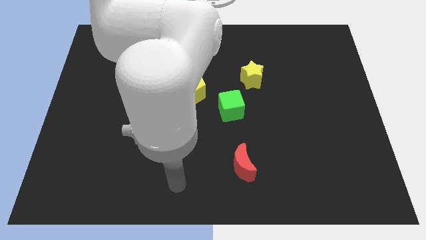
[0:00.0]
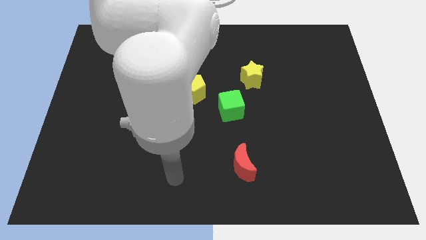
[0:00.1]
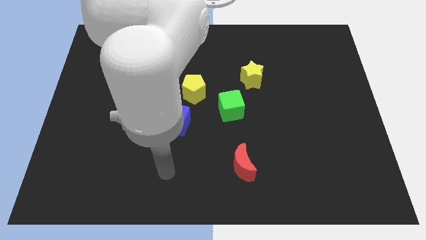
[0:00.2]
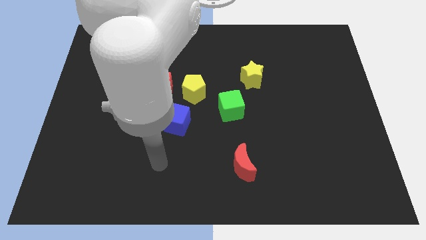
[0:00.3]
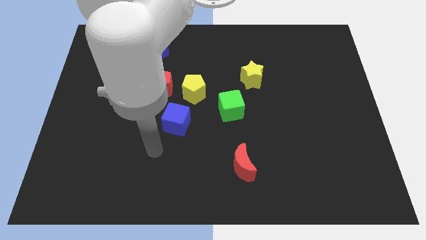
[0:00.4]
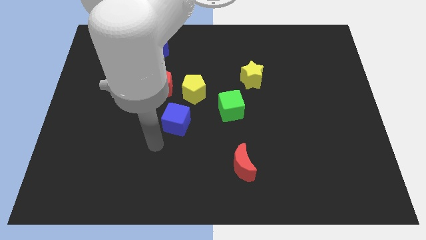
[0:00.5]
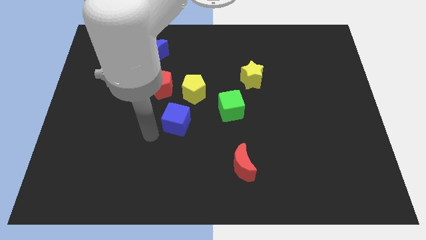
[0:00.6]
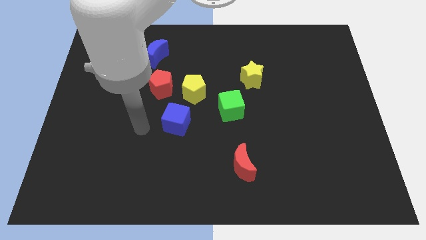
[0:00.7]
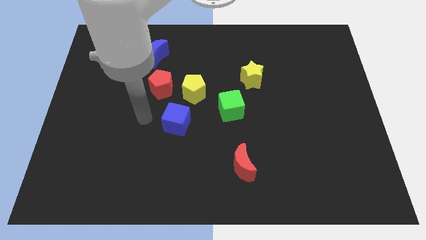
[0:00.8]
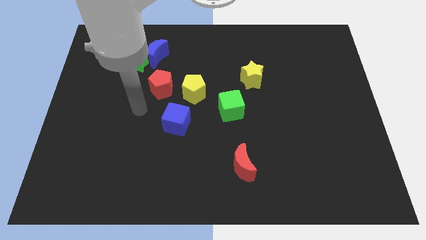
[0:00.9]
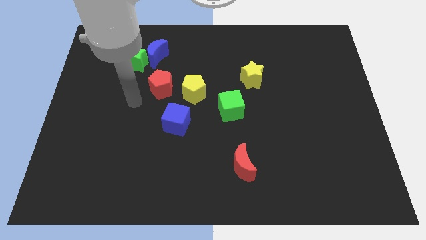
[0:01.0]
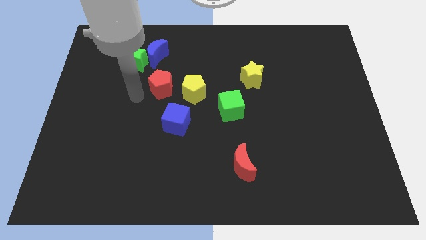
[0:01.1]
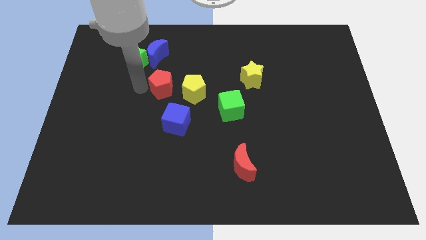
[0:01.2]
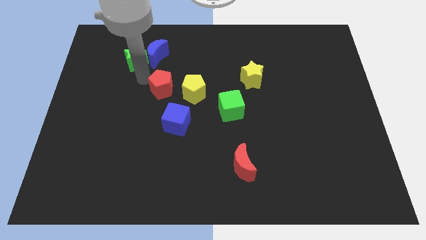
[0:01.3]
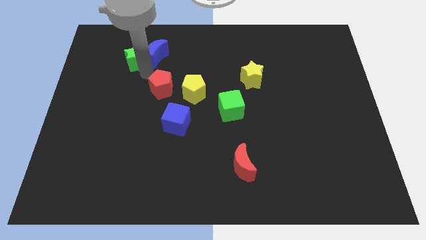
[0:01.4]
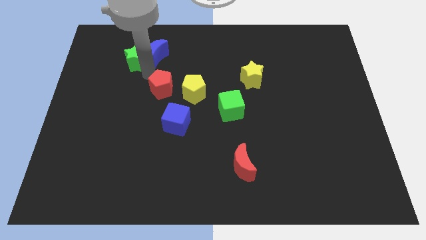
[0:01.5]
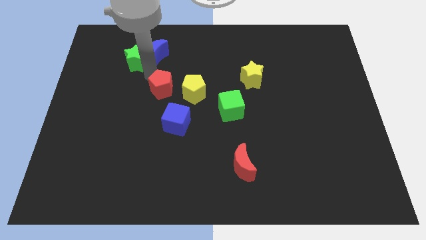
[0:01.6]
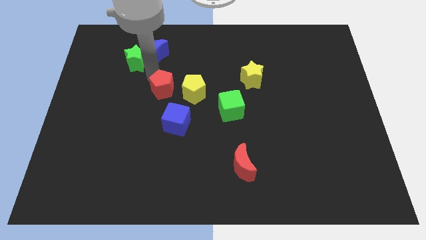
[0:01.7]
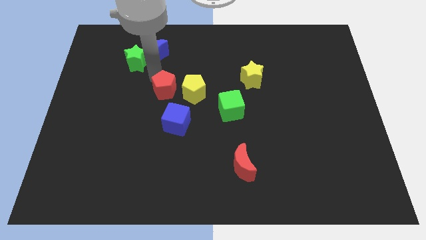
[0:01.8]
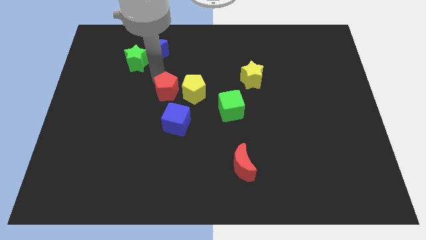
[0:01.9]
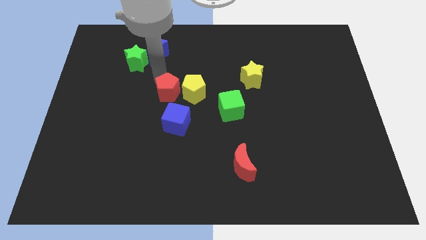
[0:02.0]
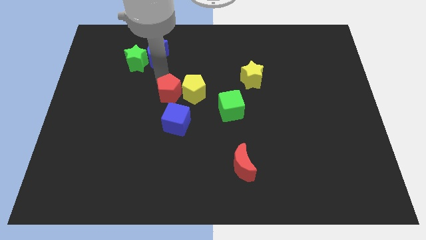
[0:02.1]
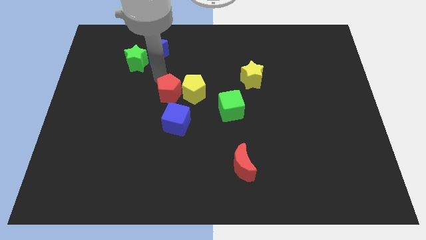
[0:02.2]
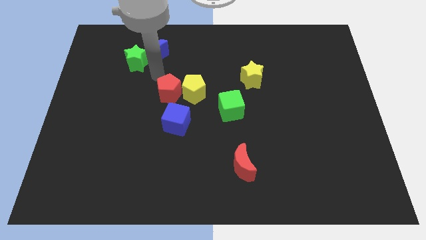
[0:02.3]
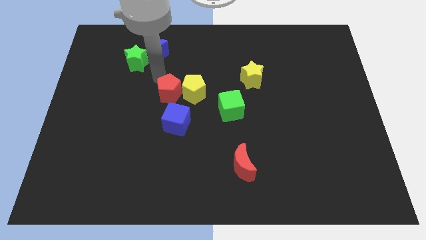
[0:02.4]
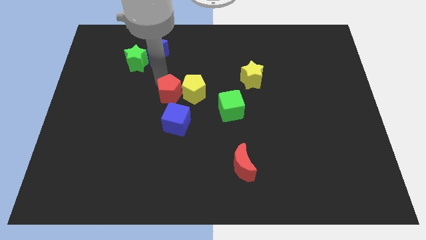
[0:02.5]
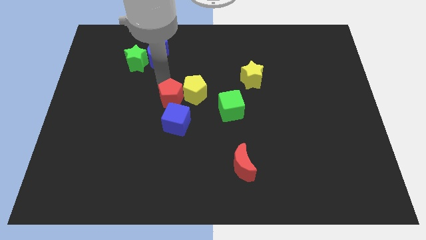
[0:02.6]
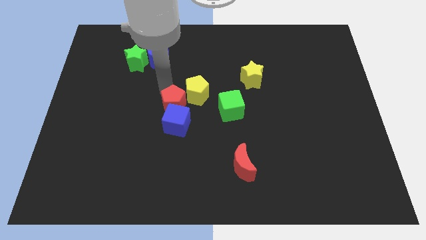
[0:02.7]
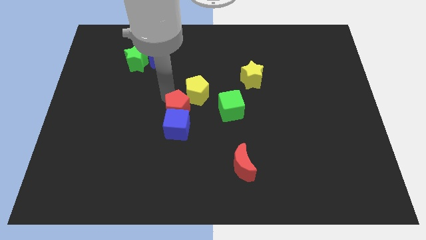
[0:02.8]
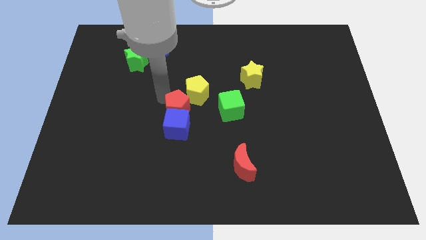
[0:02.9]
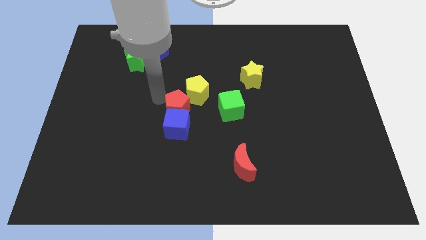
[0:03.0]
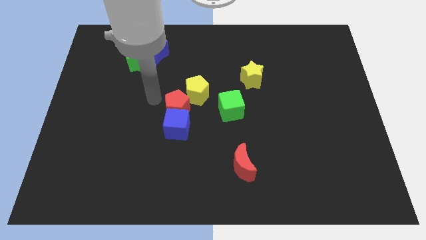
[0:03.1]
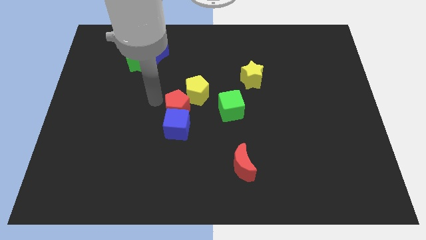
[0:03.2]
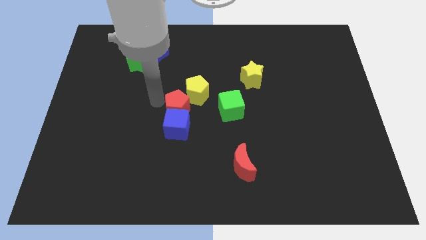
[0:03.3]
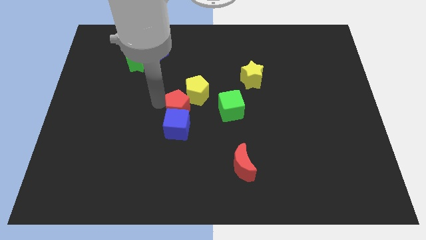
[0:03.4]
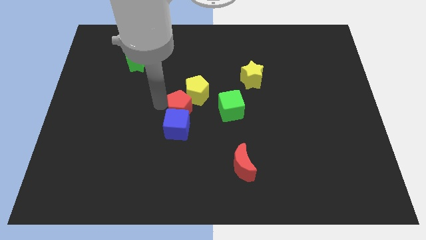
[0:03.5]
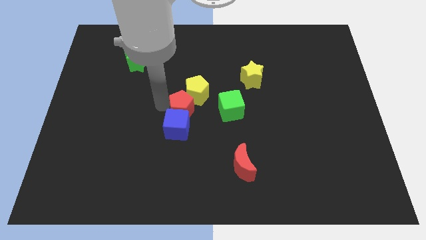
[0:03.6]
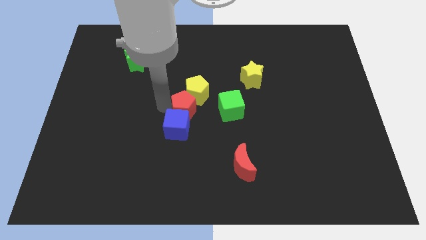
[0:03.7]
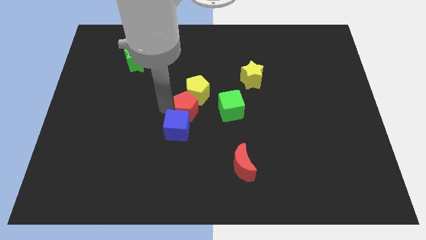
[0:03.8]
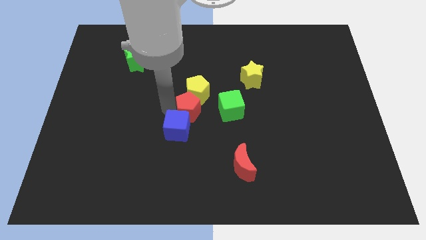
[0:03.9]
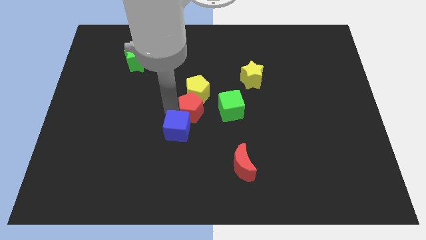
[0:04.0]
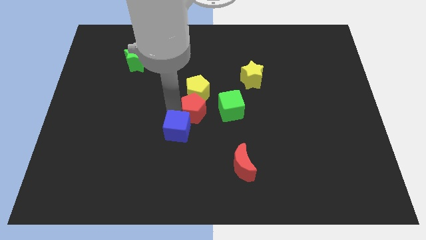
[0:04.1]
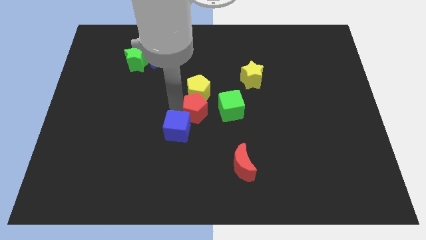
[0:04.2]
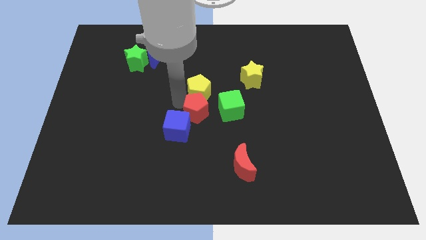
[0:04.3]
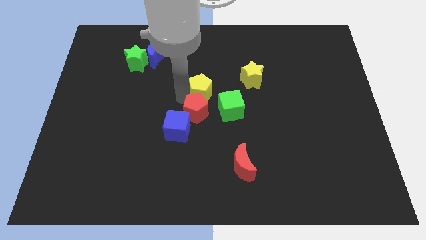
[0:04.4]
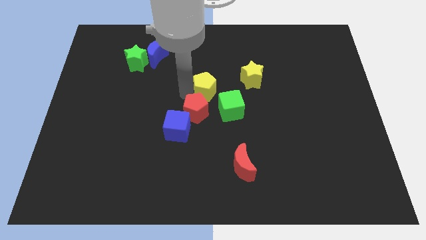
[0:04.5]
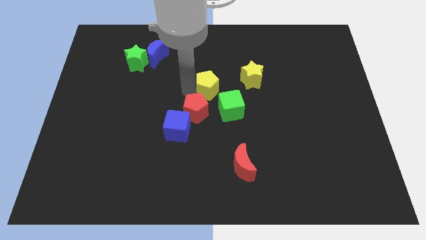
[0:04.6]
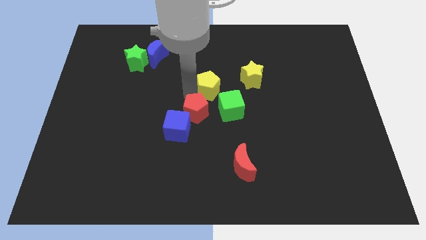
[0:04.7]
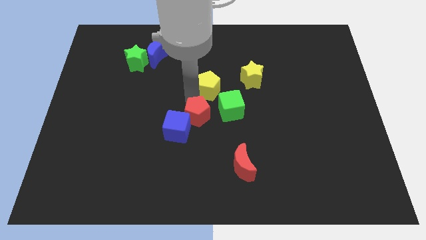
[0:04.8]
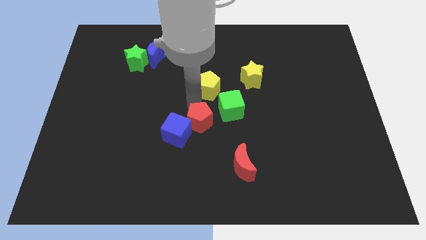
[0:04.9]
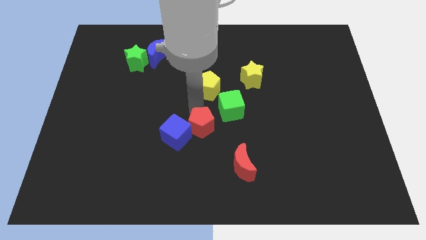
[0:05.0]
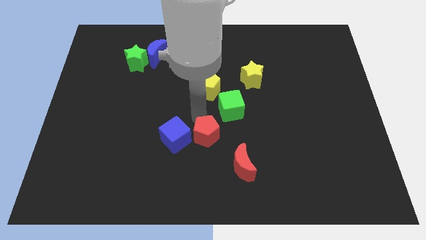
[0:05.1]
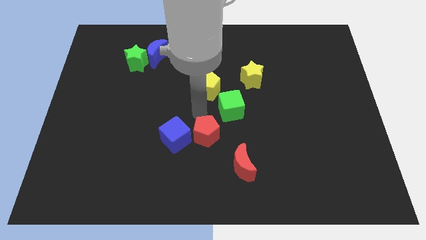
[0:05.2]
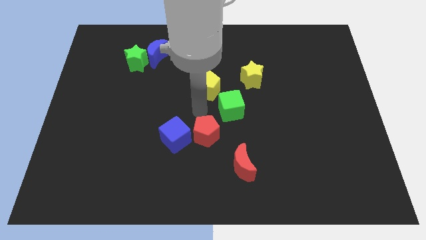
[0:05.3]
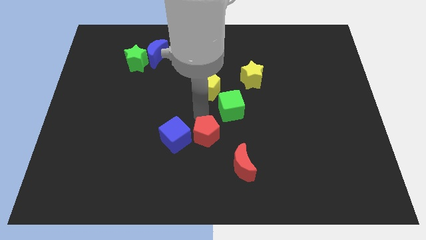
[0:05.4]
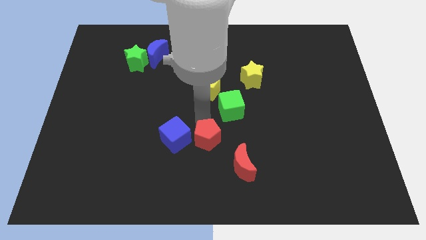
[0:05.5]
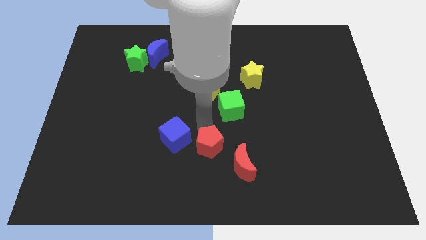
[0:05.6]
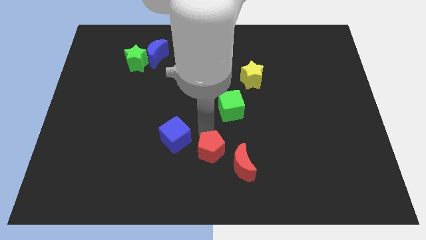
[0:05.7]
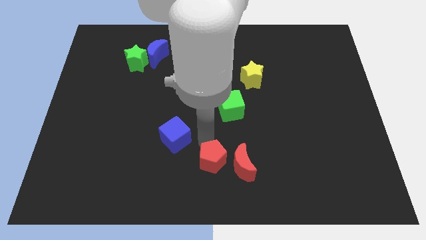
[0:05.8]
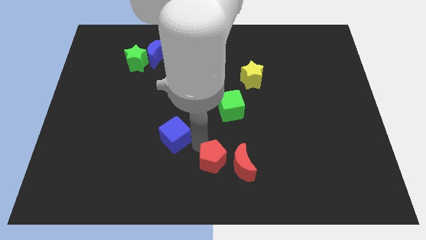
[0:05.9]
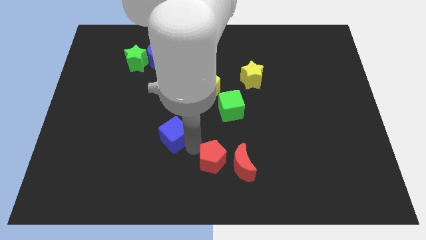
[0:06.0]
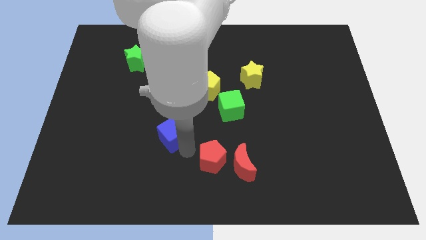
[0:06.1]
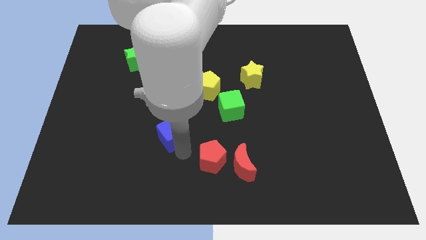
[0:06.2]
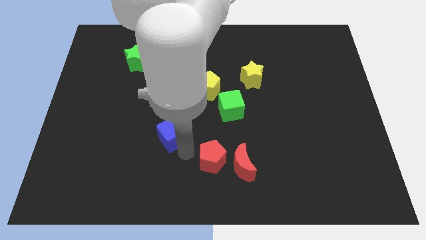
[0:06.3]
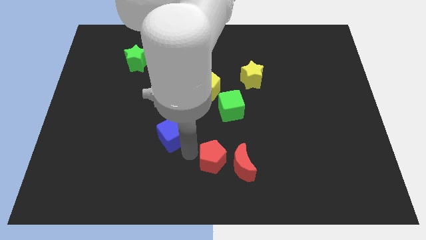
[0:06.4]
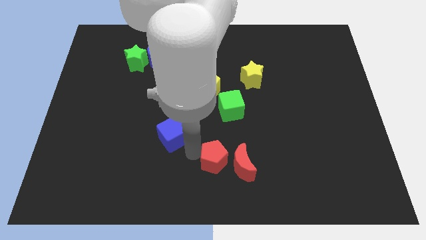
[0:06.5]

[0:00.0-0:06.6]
put the red pentagon close to the red moon

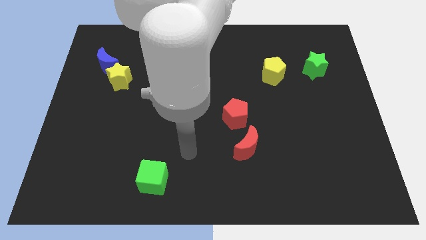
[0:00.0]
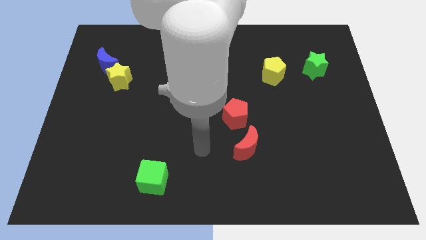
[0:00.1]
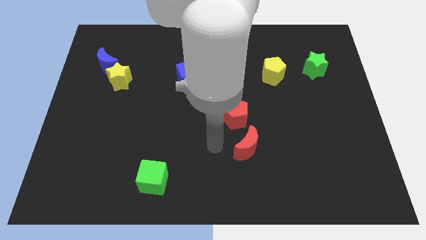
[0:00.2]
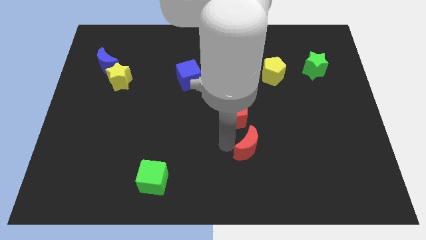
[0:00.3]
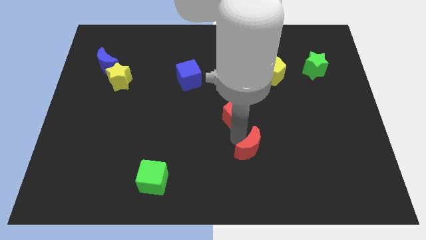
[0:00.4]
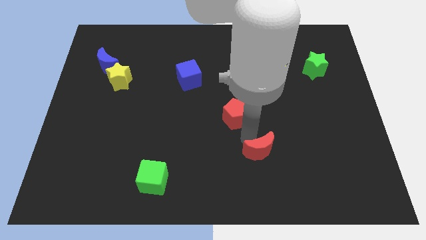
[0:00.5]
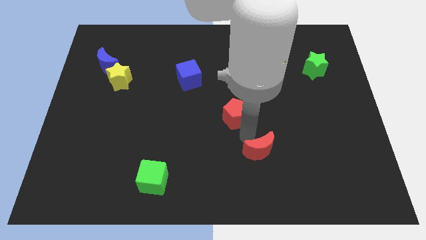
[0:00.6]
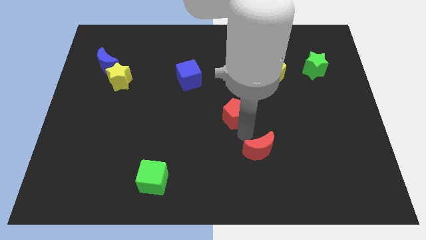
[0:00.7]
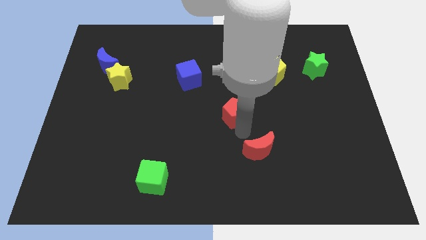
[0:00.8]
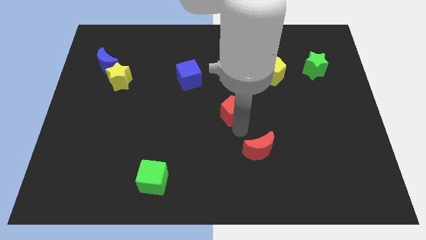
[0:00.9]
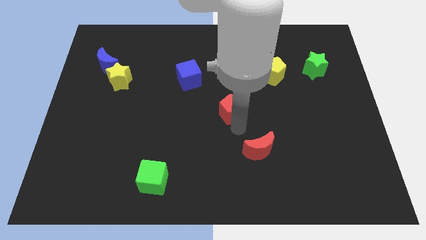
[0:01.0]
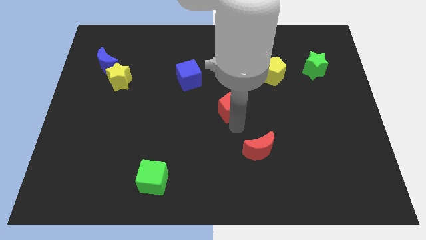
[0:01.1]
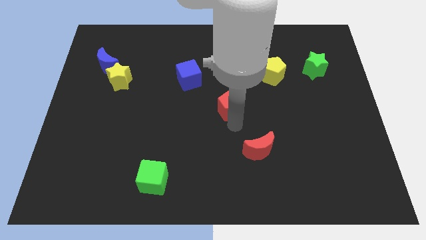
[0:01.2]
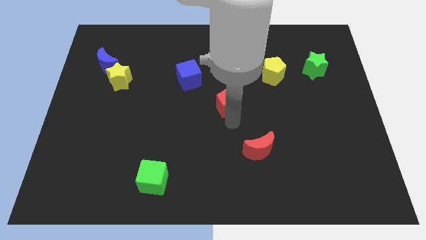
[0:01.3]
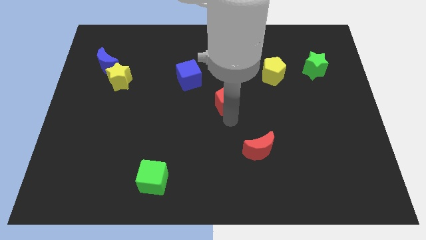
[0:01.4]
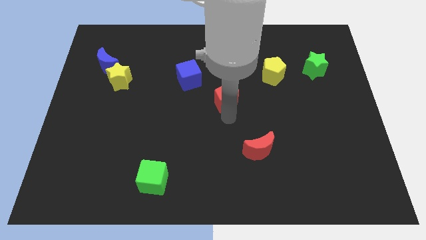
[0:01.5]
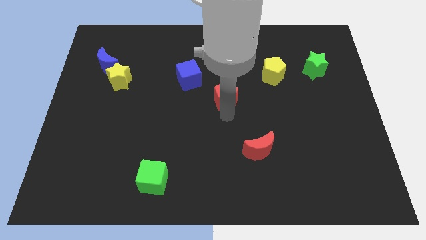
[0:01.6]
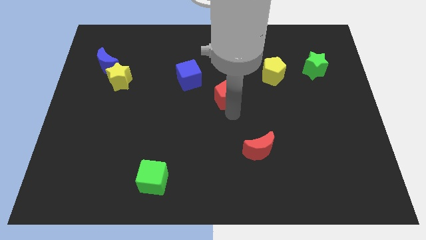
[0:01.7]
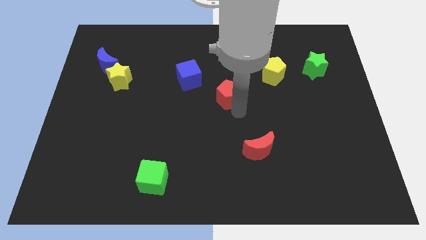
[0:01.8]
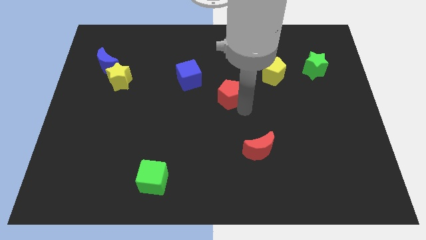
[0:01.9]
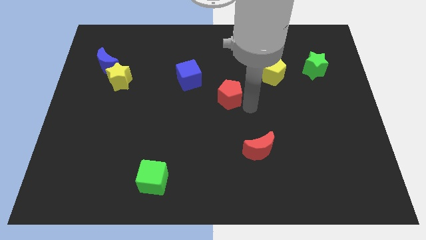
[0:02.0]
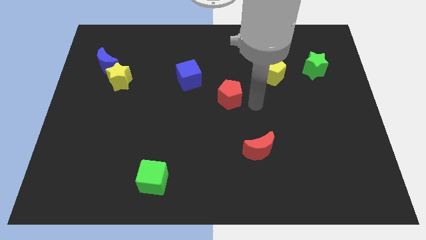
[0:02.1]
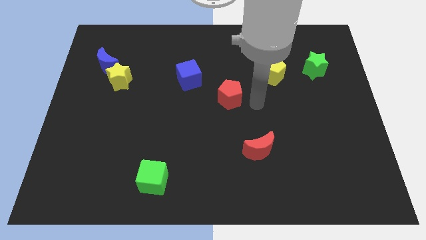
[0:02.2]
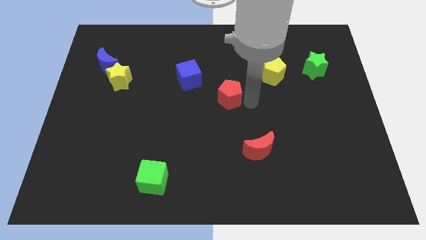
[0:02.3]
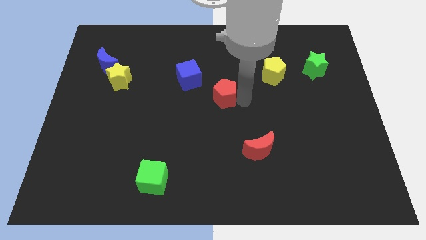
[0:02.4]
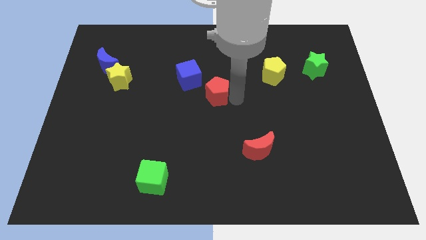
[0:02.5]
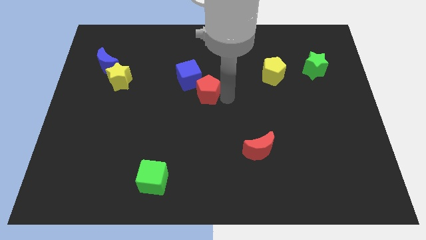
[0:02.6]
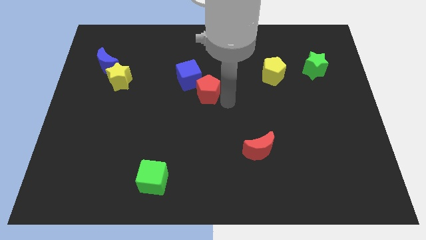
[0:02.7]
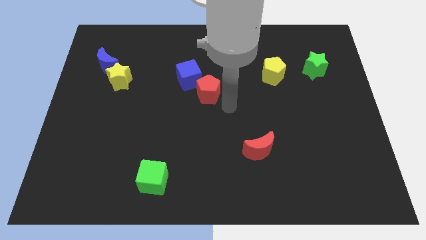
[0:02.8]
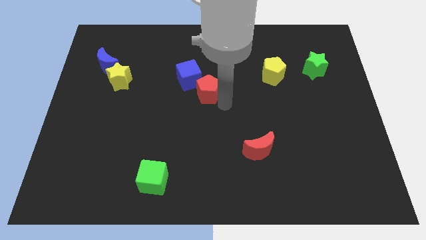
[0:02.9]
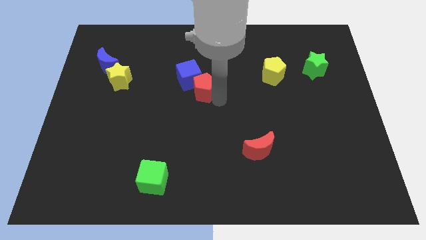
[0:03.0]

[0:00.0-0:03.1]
push the red pentagon next to the blue cube
